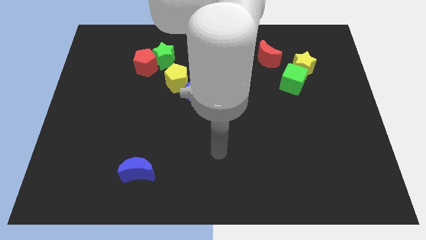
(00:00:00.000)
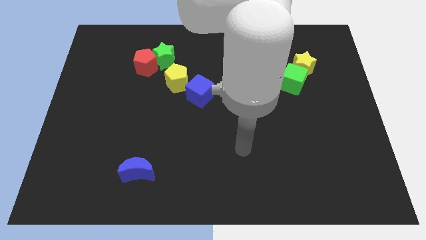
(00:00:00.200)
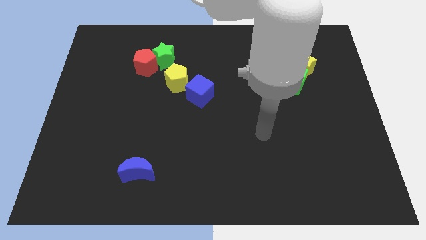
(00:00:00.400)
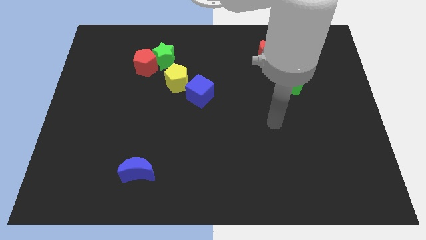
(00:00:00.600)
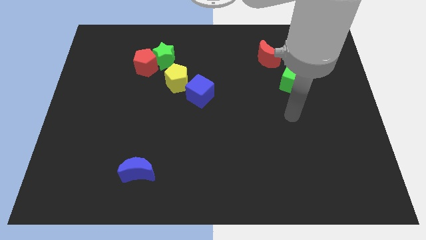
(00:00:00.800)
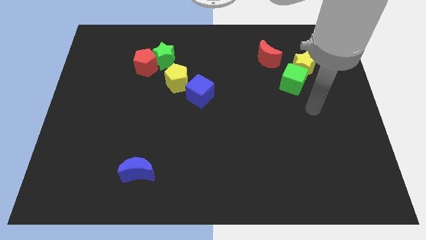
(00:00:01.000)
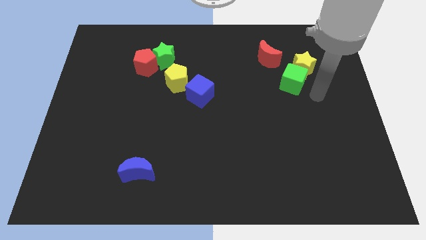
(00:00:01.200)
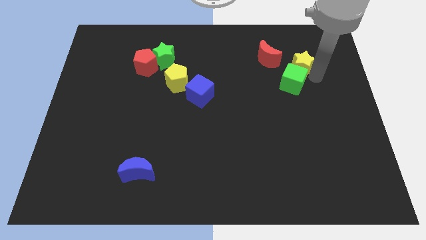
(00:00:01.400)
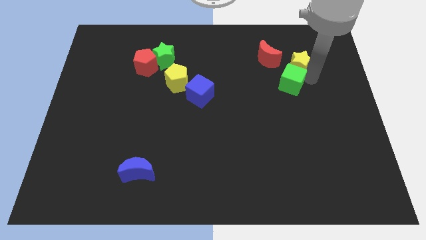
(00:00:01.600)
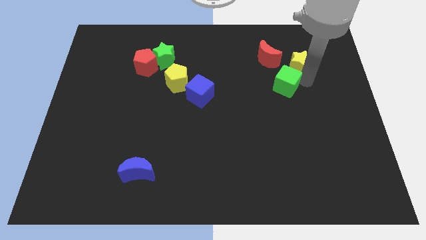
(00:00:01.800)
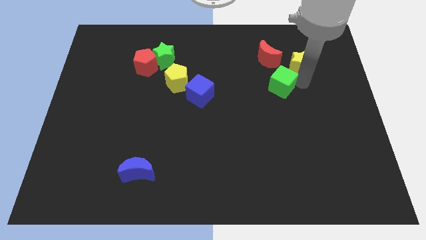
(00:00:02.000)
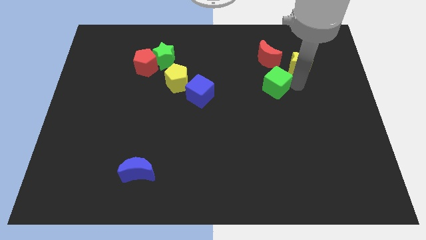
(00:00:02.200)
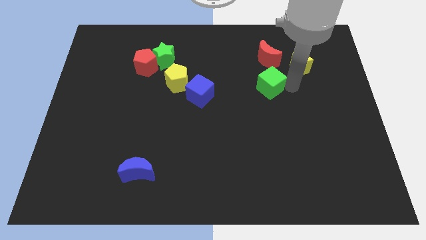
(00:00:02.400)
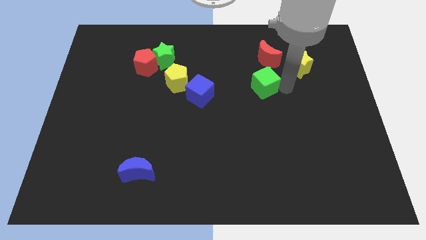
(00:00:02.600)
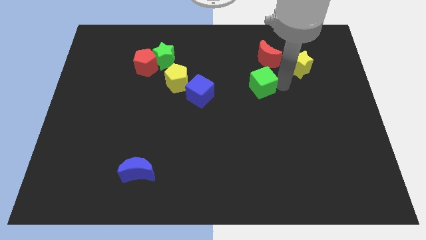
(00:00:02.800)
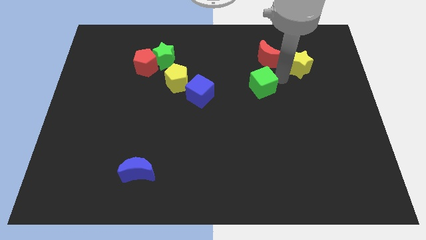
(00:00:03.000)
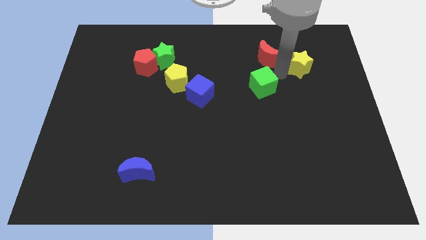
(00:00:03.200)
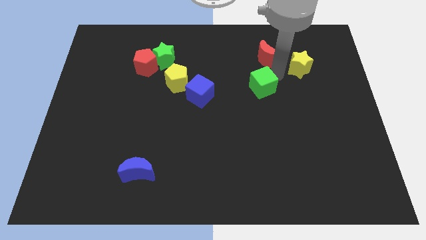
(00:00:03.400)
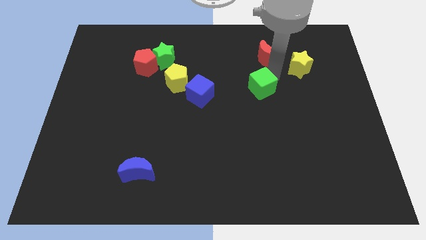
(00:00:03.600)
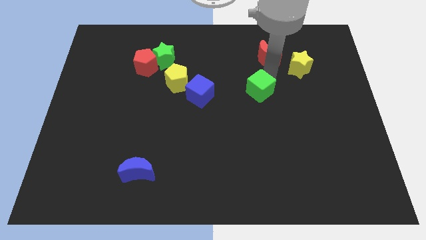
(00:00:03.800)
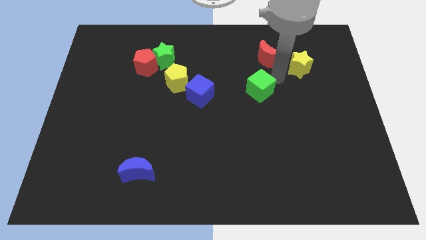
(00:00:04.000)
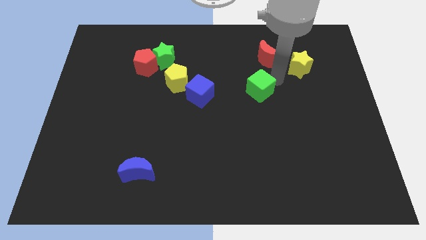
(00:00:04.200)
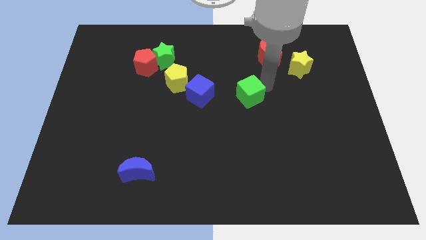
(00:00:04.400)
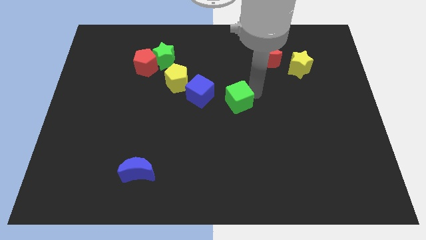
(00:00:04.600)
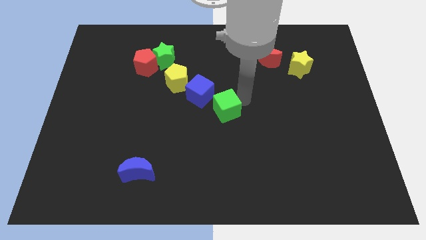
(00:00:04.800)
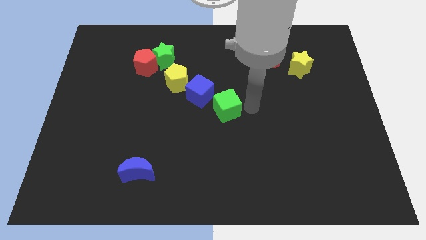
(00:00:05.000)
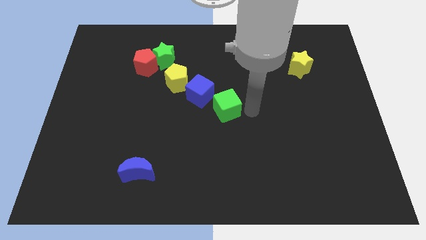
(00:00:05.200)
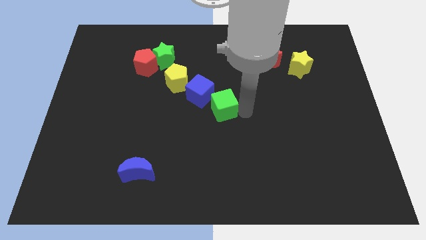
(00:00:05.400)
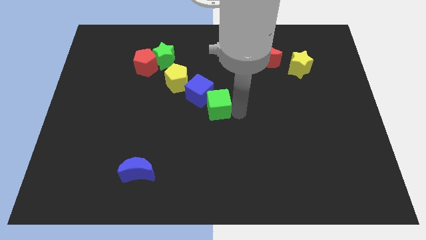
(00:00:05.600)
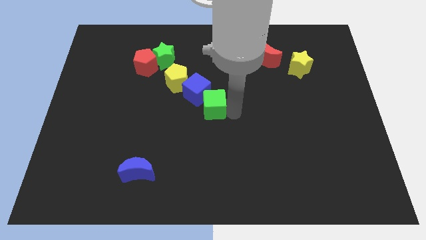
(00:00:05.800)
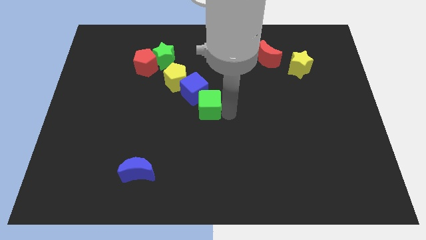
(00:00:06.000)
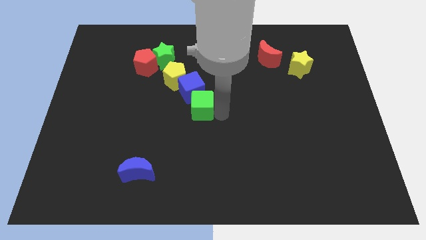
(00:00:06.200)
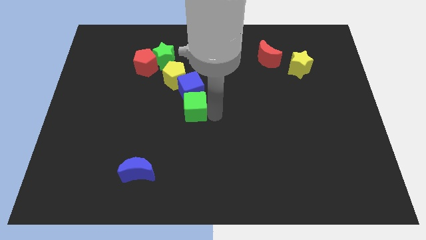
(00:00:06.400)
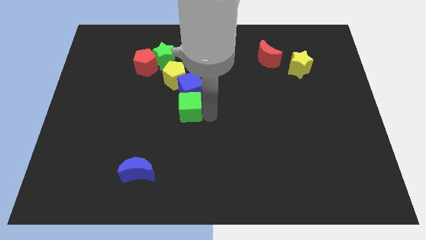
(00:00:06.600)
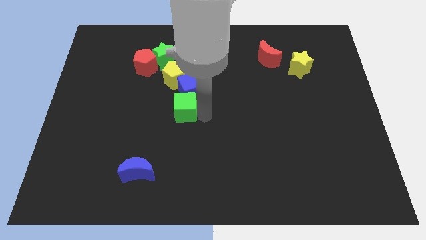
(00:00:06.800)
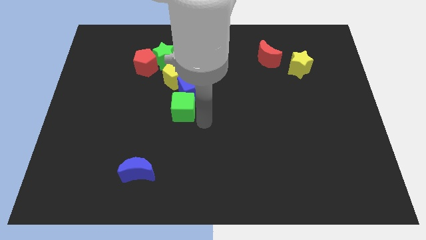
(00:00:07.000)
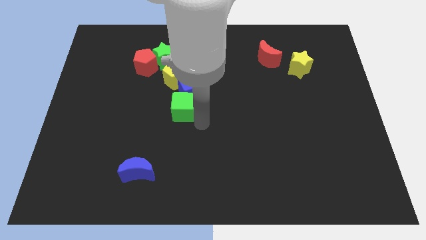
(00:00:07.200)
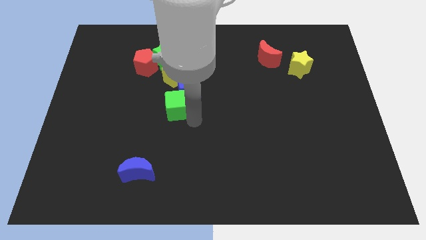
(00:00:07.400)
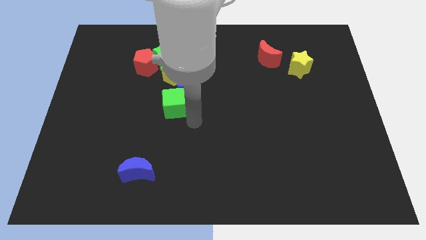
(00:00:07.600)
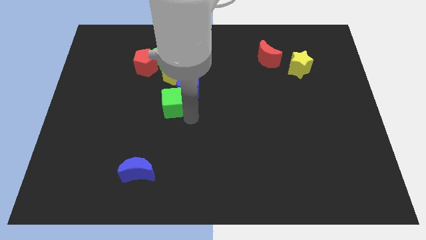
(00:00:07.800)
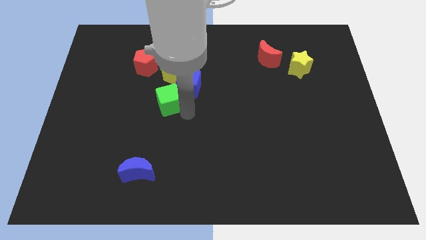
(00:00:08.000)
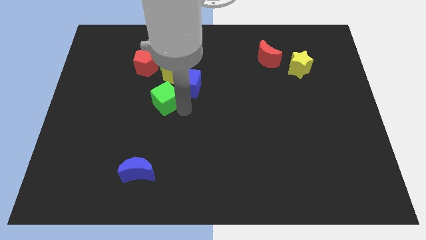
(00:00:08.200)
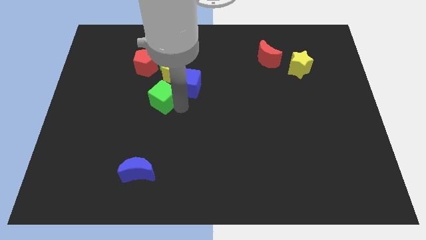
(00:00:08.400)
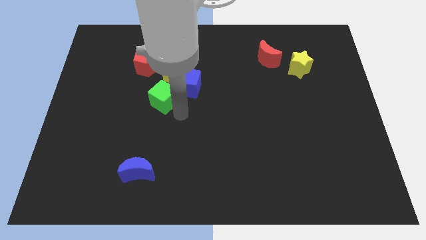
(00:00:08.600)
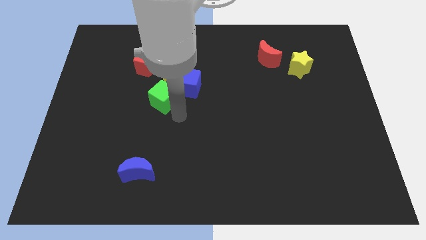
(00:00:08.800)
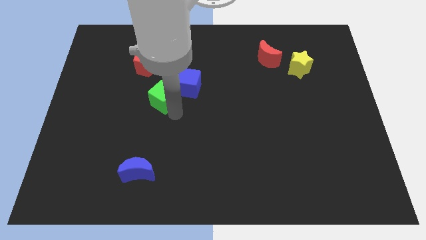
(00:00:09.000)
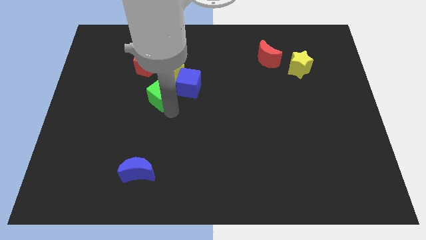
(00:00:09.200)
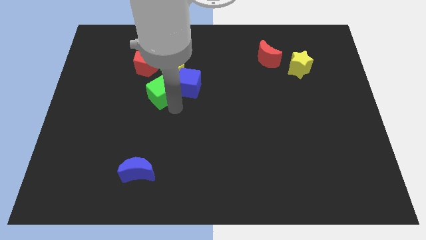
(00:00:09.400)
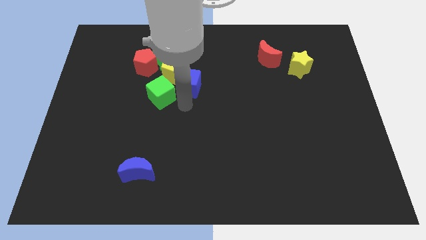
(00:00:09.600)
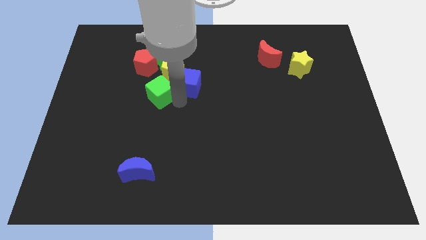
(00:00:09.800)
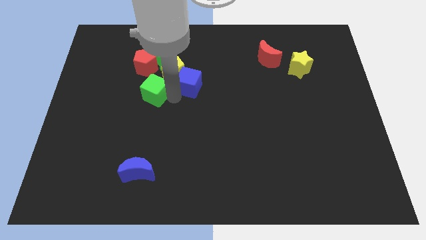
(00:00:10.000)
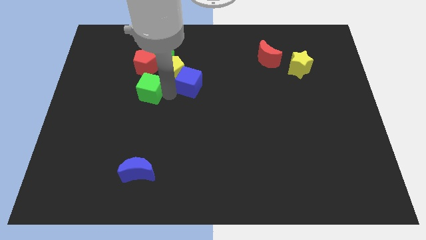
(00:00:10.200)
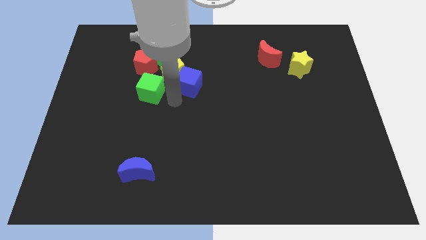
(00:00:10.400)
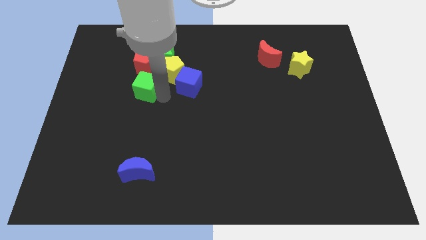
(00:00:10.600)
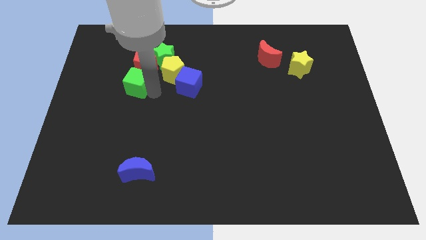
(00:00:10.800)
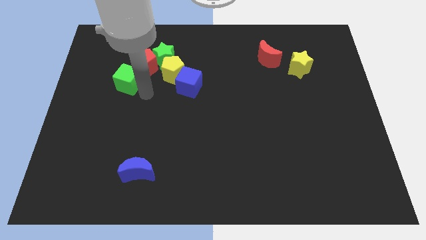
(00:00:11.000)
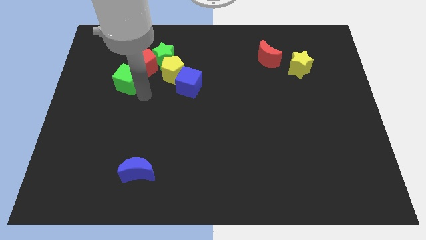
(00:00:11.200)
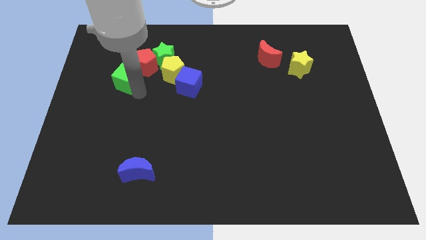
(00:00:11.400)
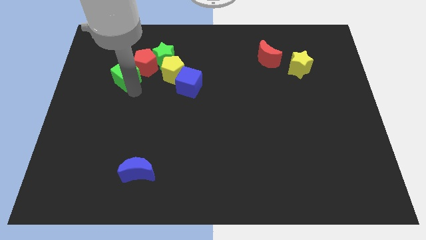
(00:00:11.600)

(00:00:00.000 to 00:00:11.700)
put the green cube to the left of the red pentagon

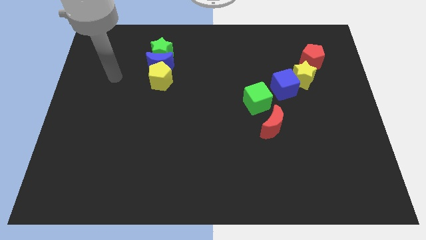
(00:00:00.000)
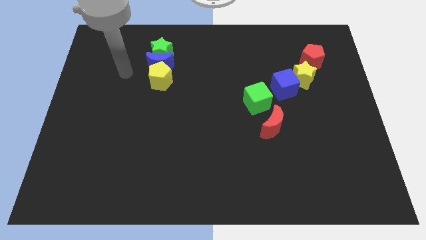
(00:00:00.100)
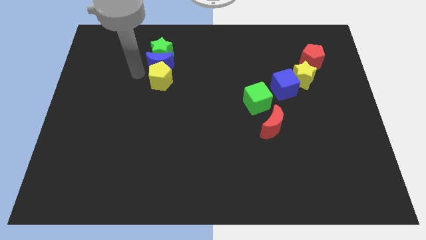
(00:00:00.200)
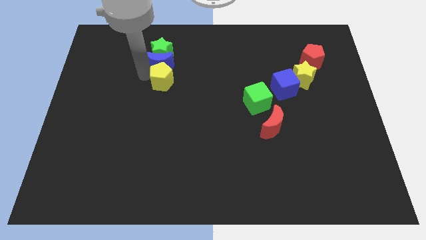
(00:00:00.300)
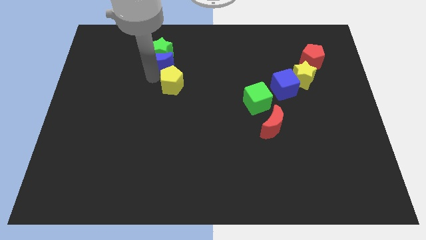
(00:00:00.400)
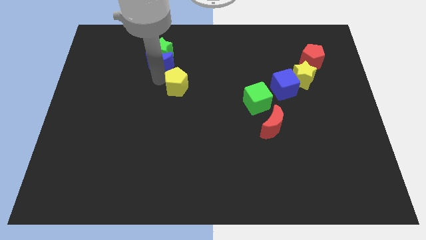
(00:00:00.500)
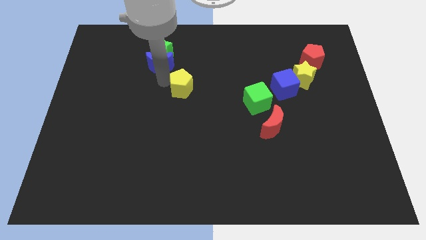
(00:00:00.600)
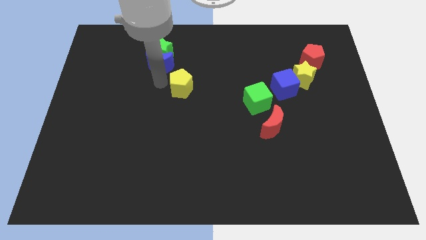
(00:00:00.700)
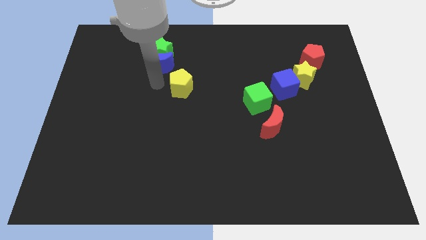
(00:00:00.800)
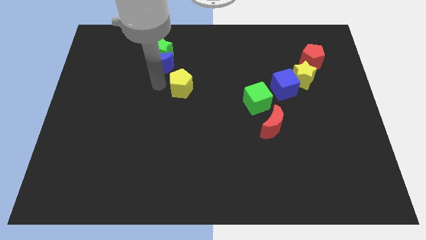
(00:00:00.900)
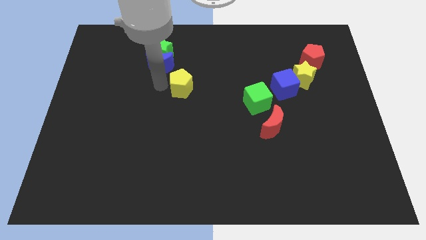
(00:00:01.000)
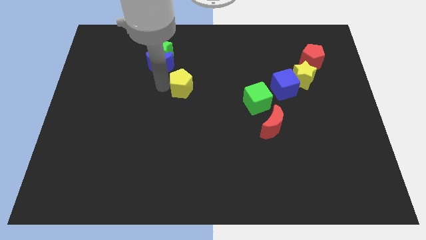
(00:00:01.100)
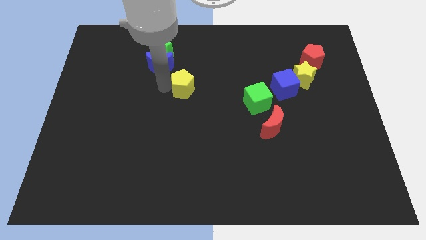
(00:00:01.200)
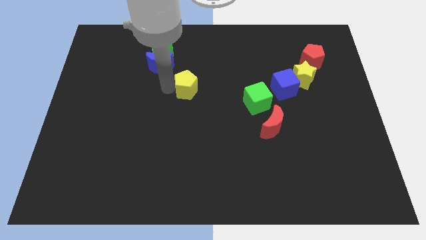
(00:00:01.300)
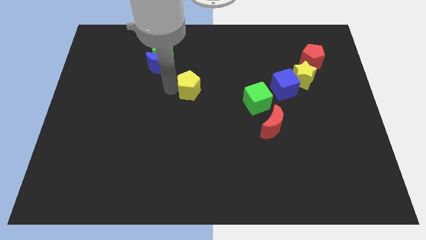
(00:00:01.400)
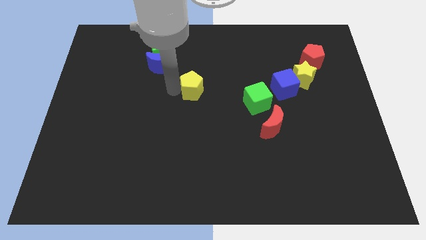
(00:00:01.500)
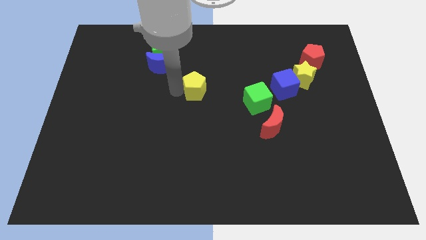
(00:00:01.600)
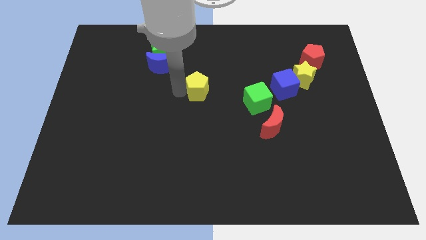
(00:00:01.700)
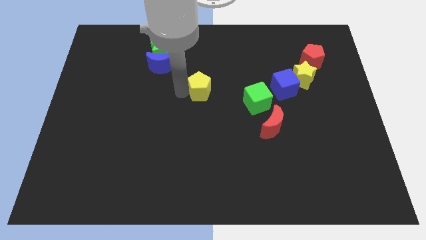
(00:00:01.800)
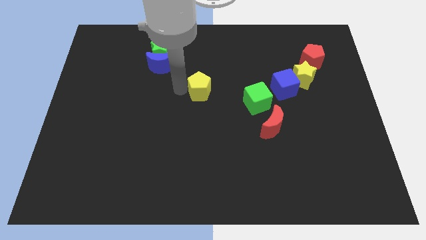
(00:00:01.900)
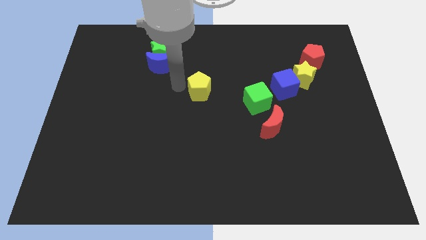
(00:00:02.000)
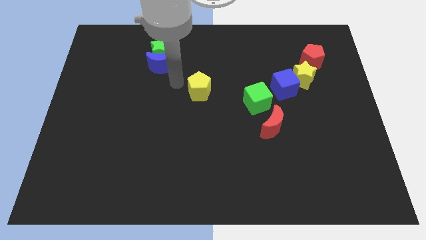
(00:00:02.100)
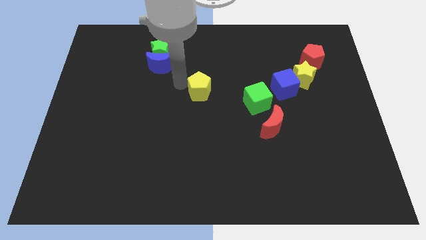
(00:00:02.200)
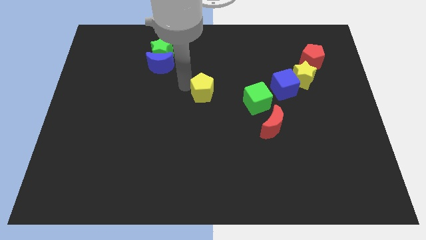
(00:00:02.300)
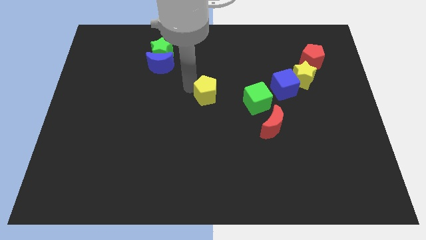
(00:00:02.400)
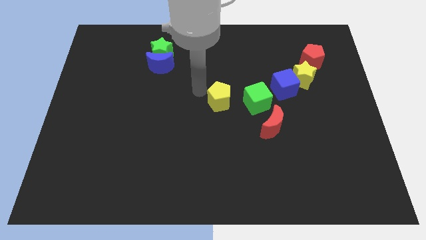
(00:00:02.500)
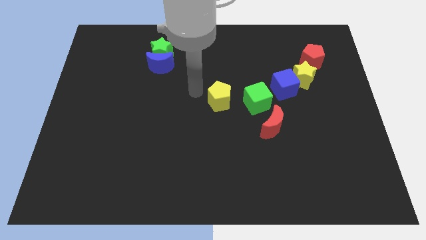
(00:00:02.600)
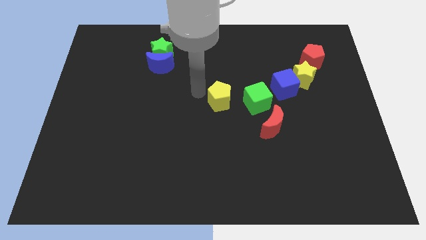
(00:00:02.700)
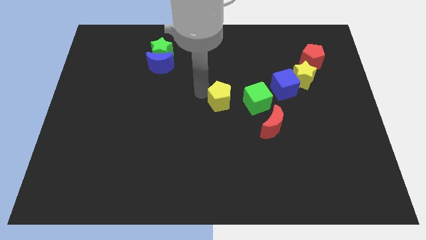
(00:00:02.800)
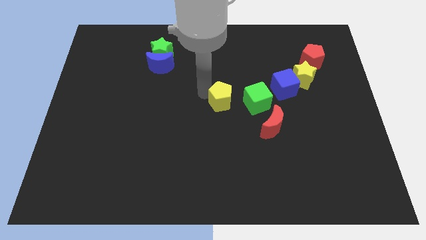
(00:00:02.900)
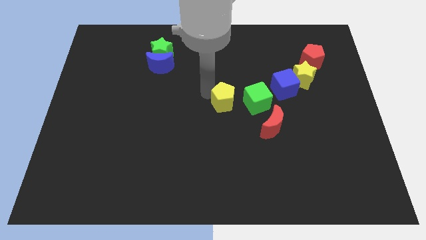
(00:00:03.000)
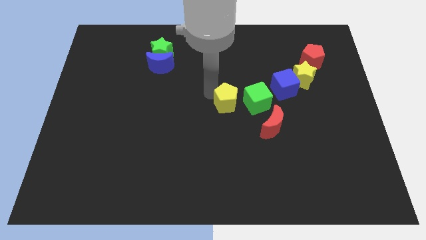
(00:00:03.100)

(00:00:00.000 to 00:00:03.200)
slide the yellow pentagon to the top left of the red moon
